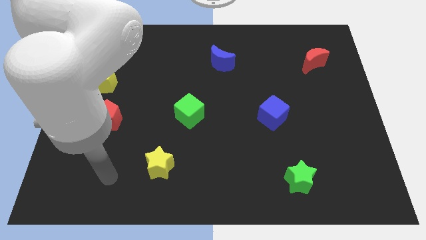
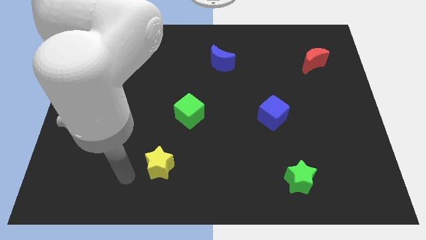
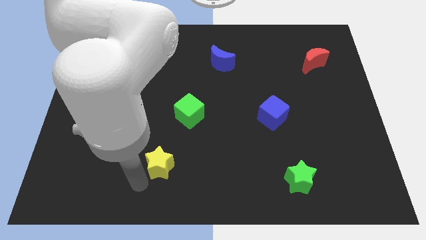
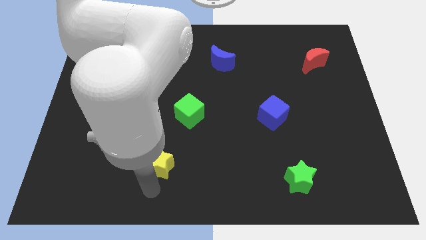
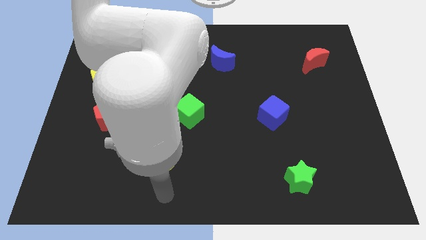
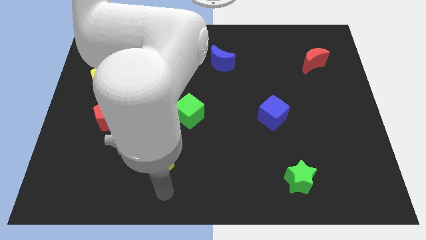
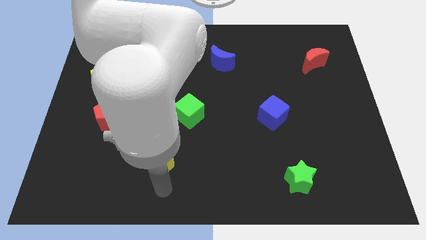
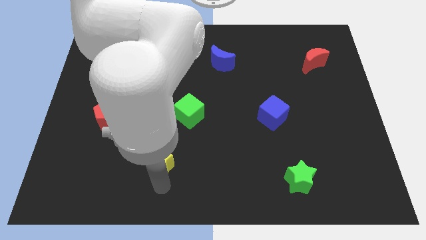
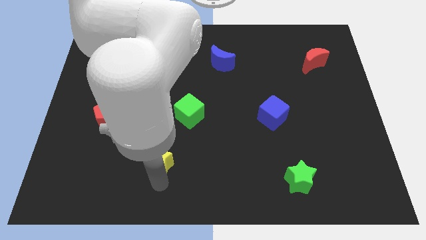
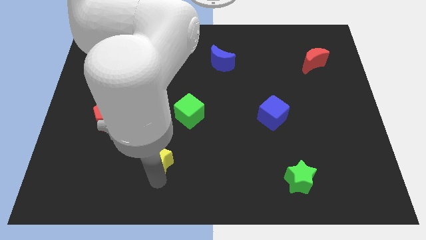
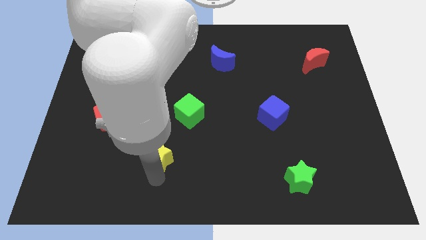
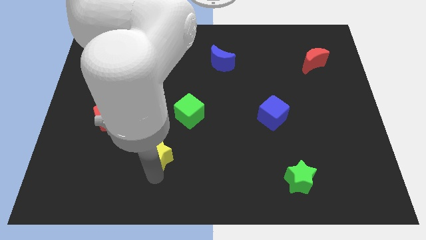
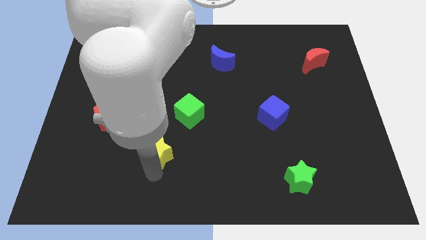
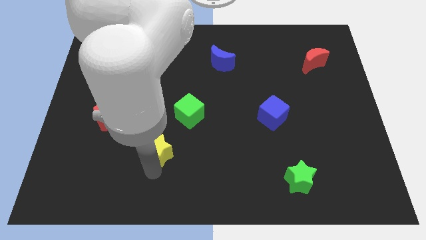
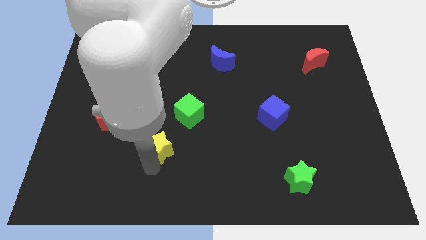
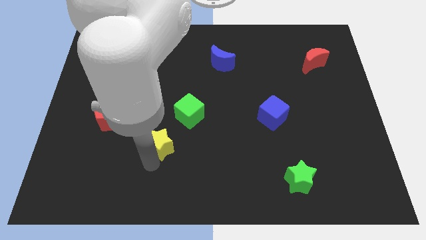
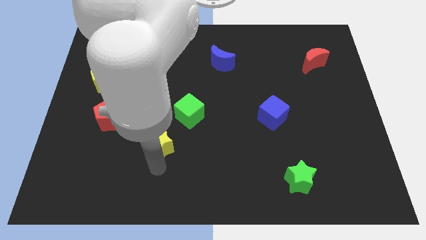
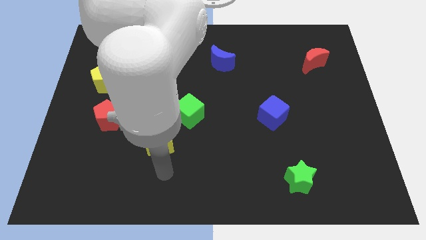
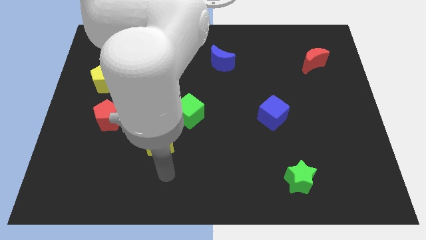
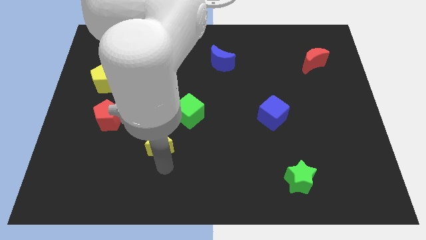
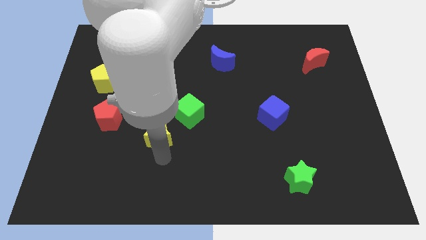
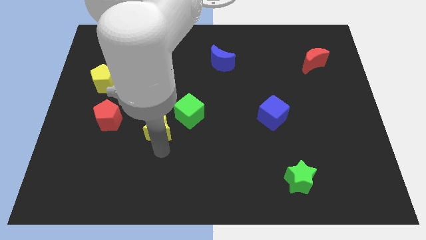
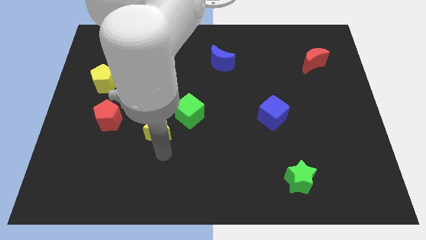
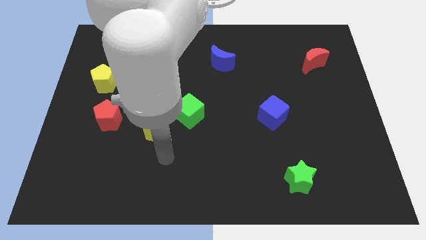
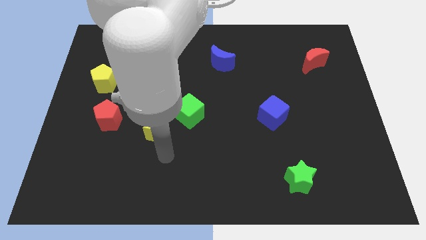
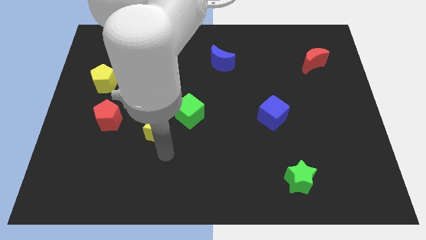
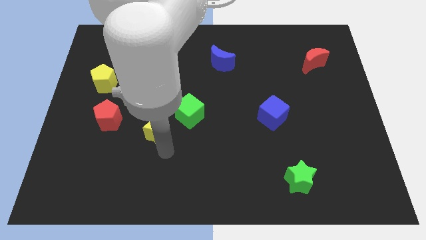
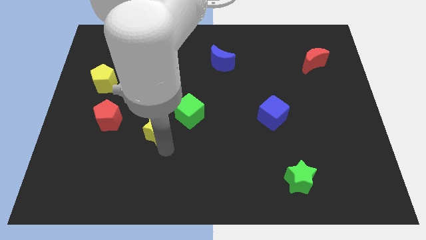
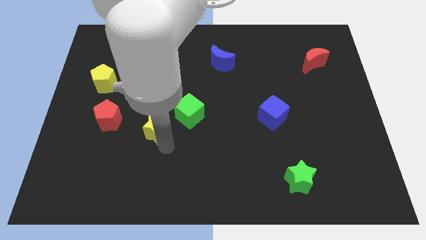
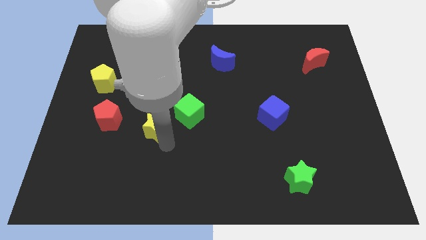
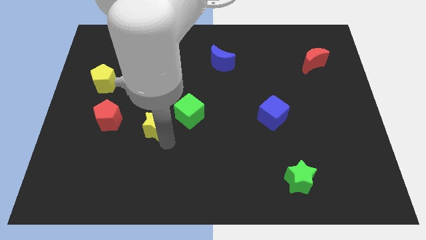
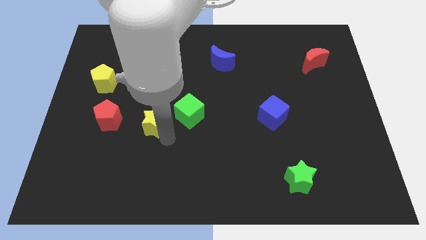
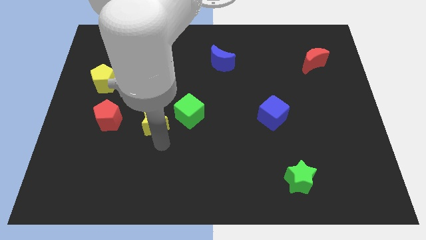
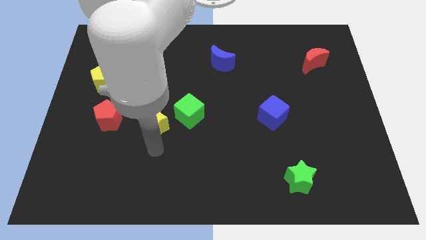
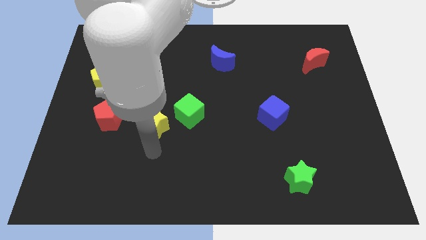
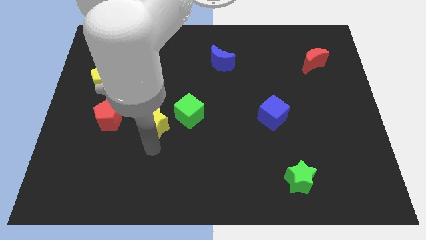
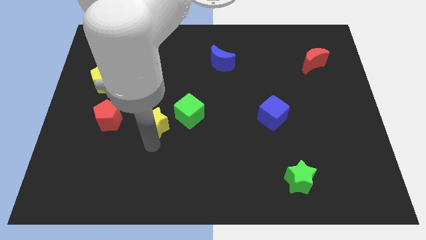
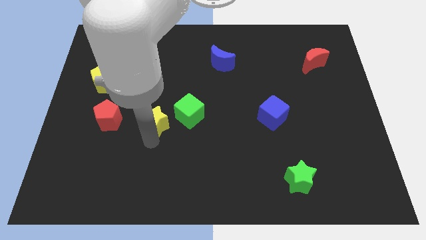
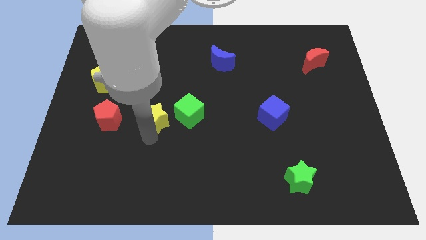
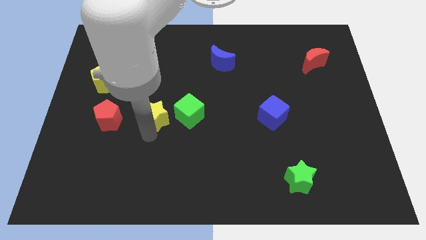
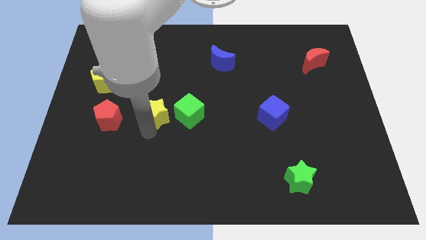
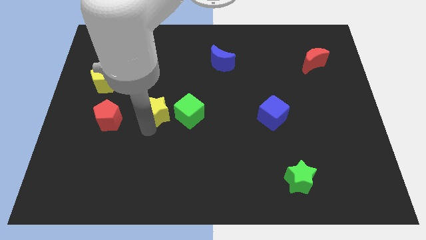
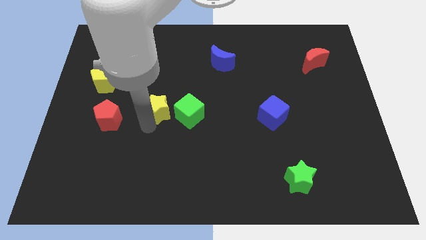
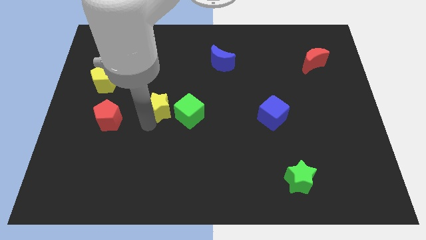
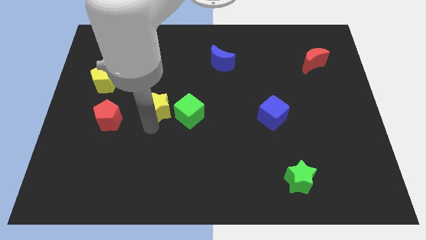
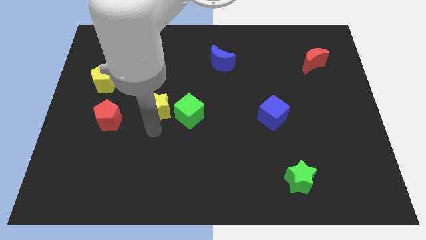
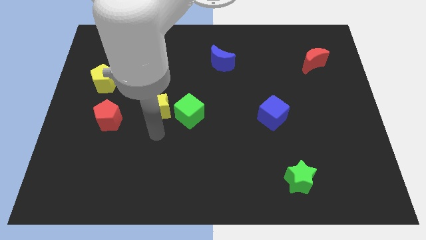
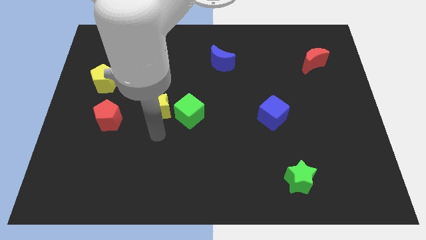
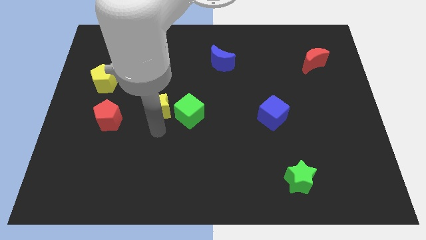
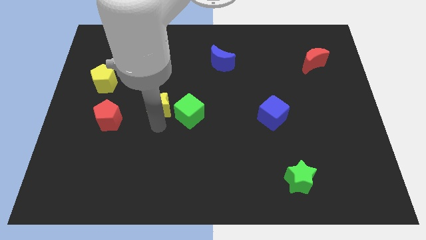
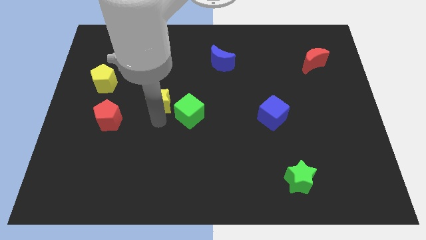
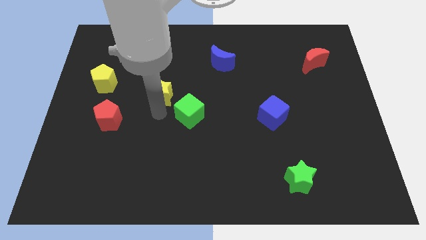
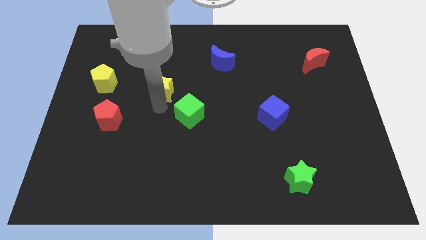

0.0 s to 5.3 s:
slide the yellow star upwards

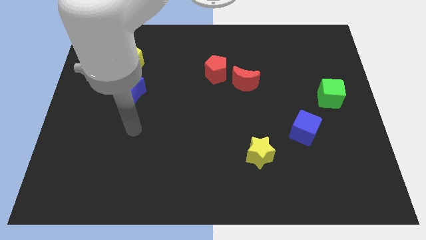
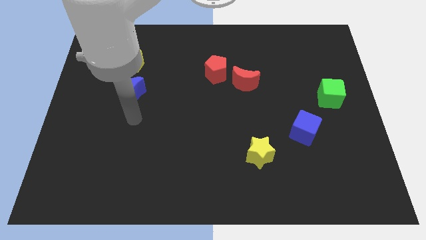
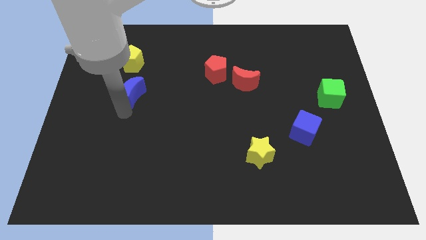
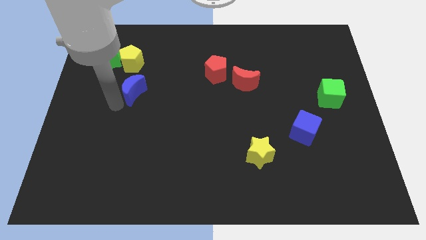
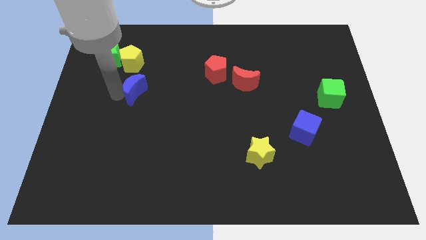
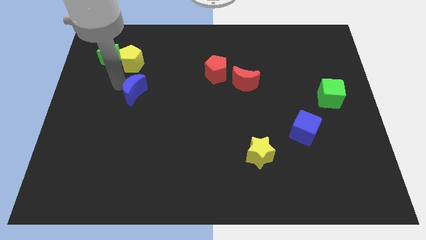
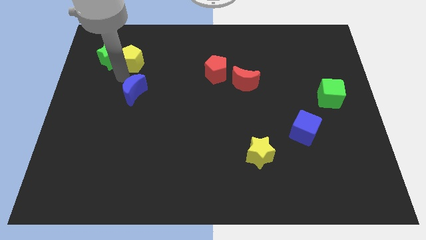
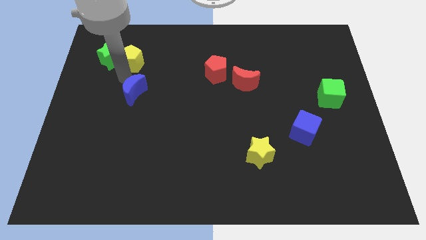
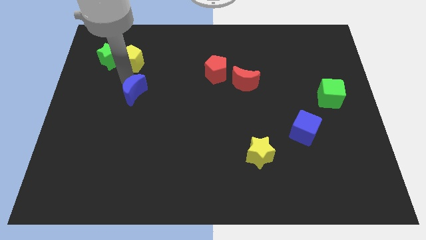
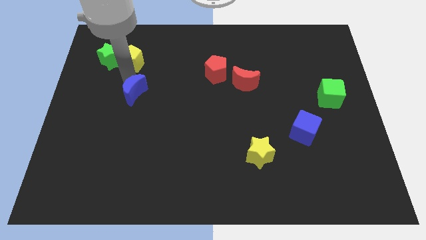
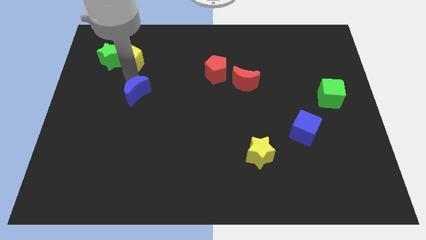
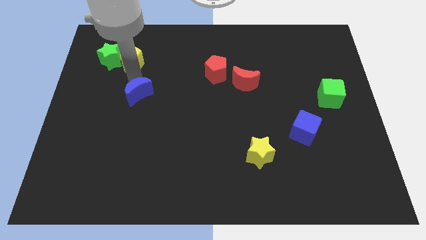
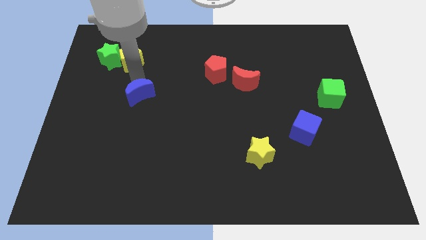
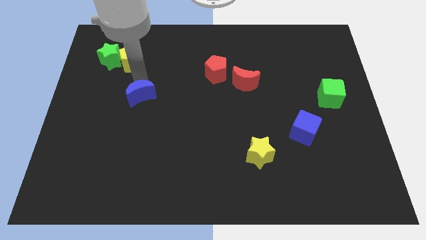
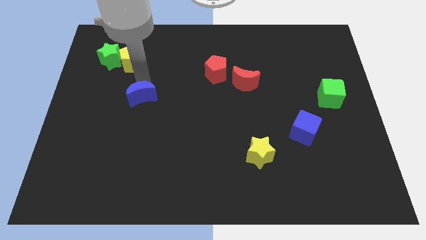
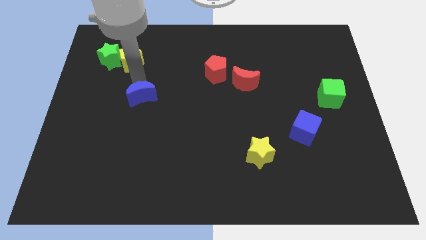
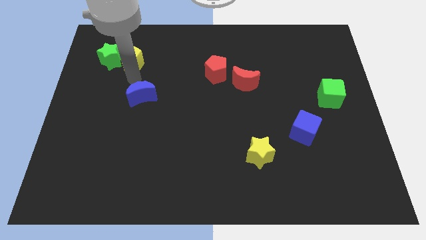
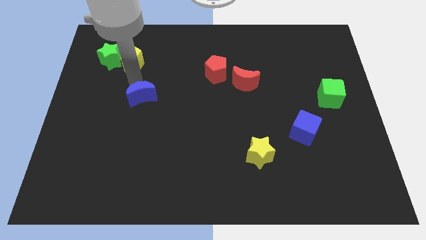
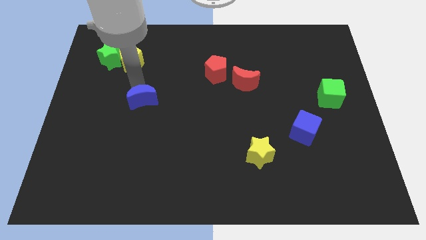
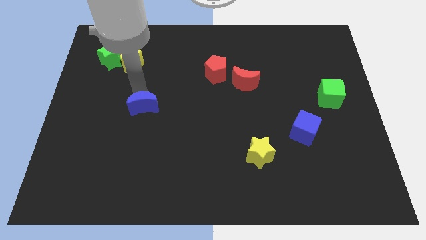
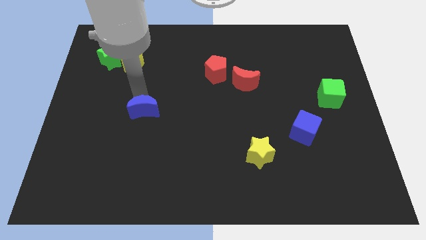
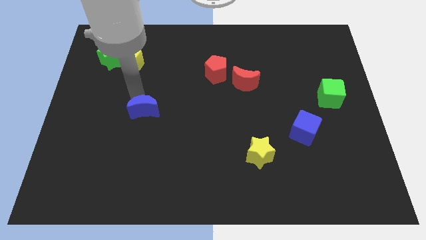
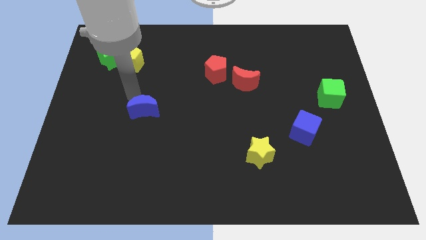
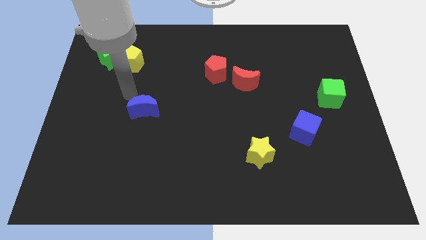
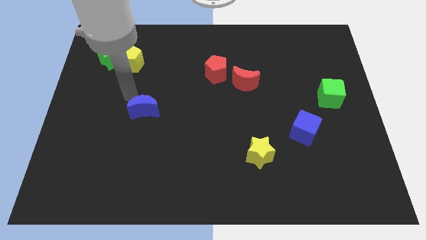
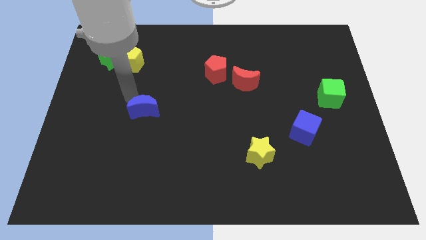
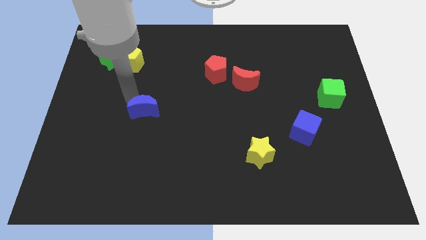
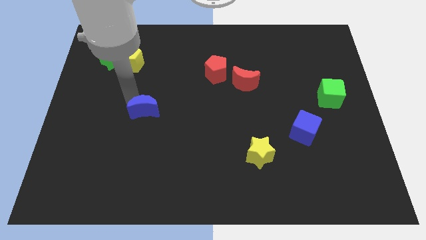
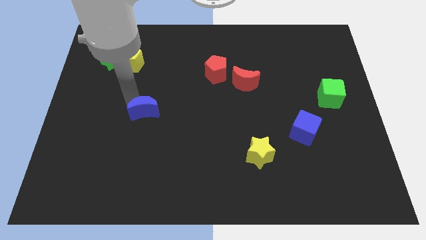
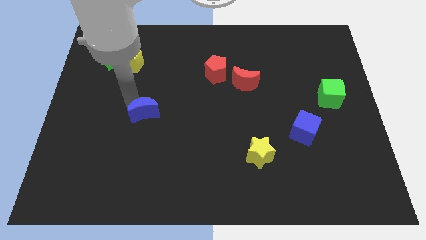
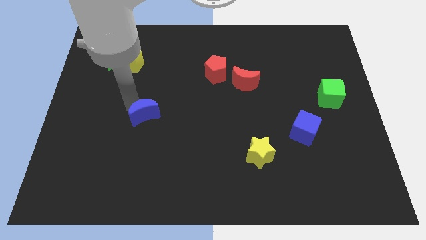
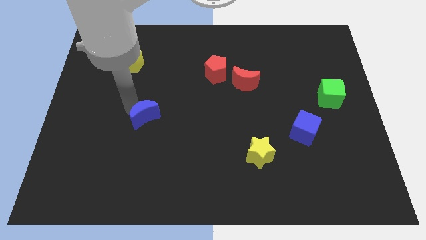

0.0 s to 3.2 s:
slide the blue moon a bit diagonally downwards and right
